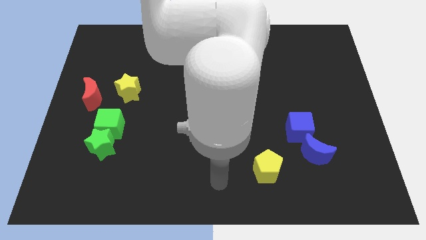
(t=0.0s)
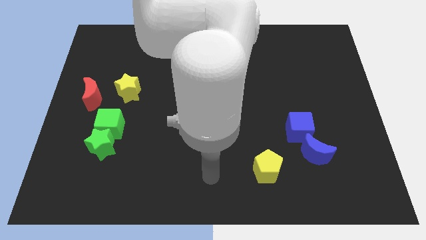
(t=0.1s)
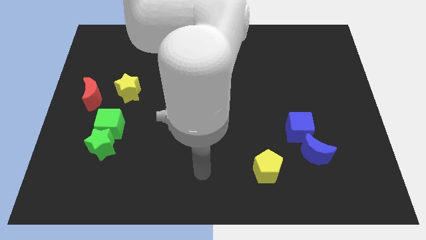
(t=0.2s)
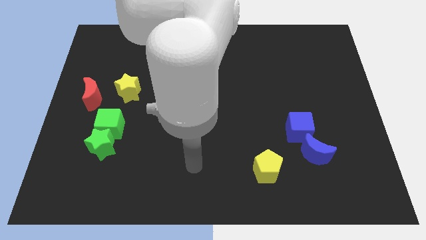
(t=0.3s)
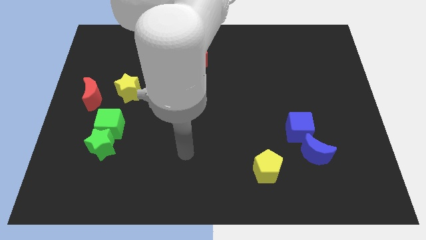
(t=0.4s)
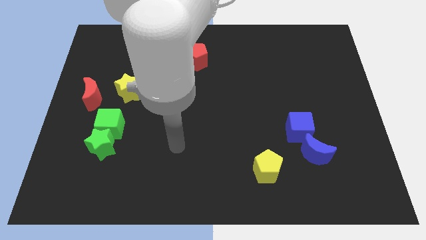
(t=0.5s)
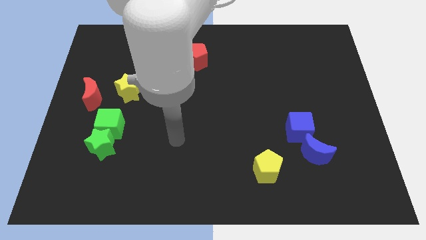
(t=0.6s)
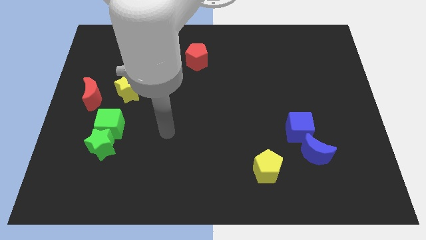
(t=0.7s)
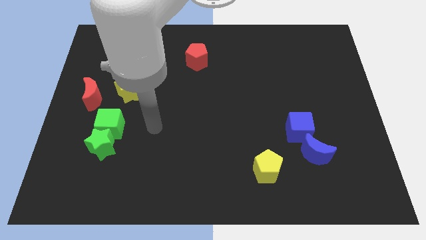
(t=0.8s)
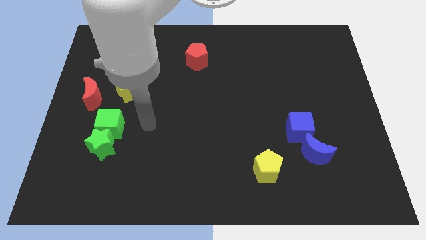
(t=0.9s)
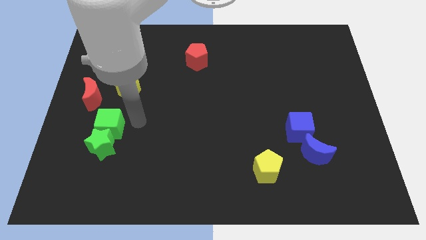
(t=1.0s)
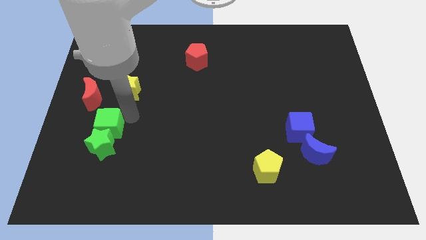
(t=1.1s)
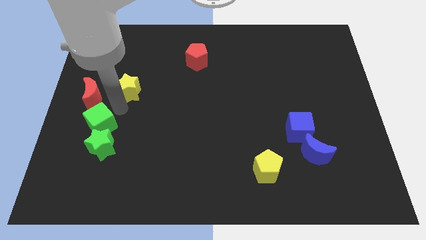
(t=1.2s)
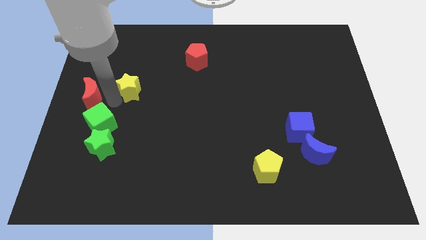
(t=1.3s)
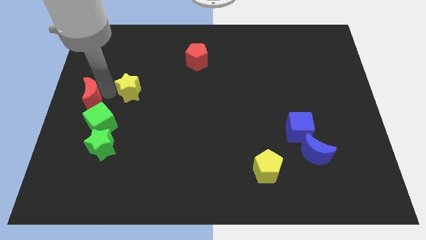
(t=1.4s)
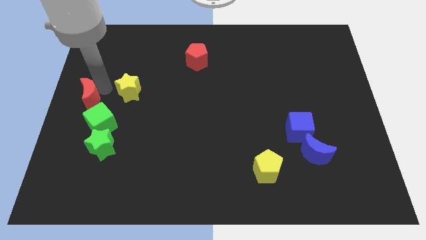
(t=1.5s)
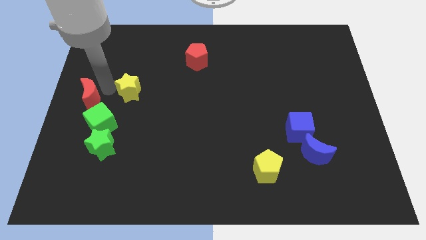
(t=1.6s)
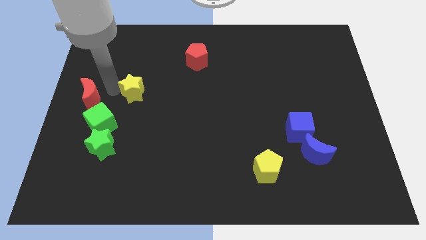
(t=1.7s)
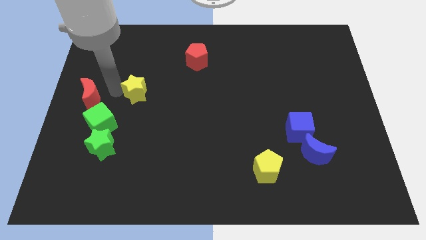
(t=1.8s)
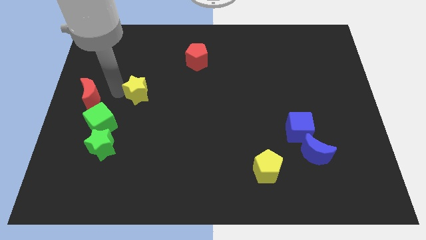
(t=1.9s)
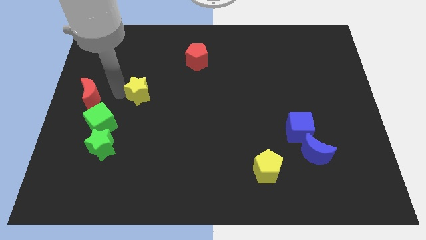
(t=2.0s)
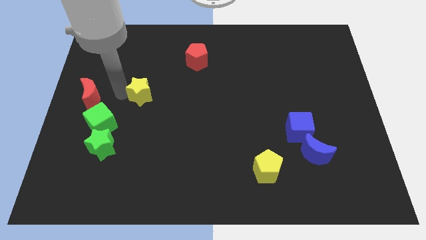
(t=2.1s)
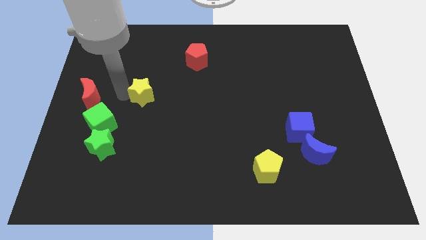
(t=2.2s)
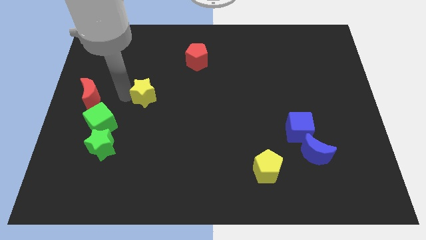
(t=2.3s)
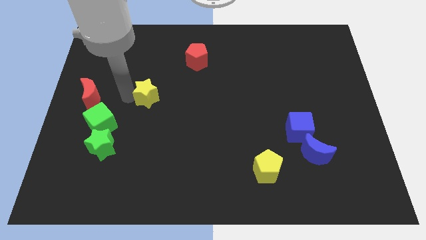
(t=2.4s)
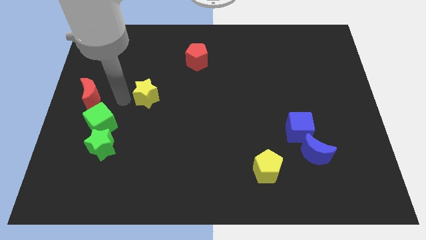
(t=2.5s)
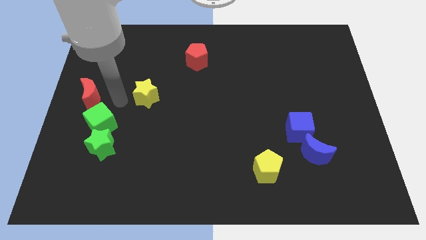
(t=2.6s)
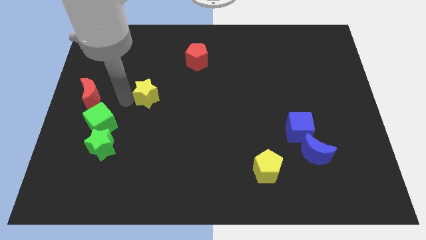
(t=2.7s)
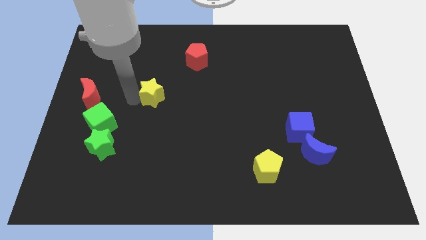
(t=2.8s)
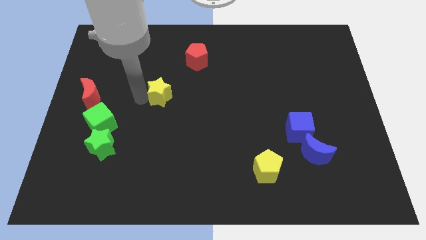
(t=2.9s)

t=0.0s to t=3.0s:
push the yellow star right a little

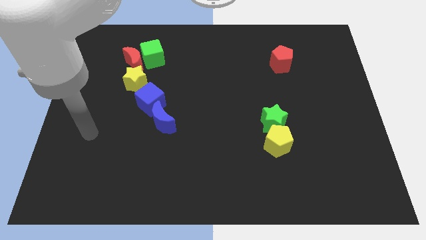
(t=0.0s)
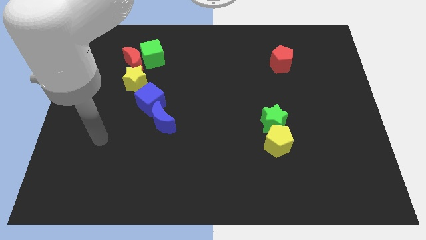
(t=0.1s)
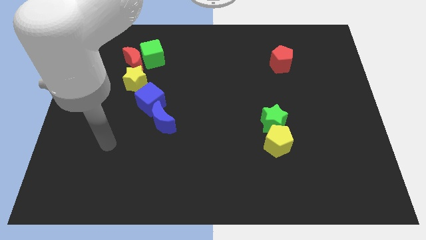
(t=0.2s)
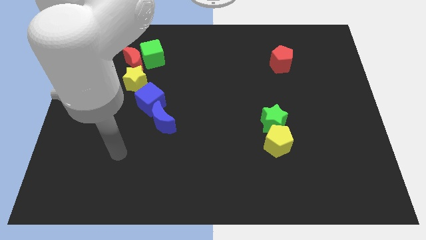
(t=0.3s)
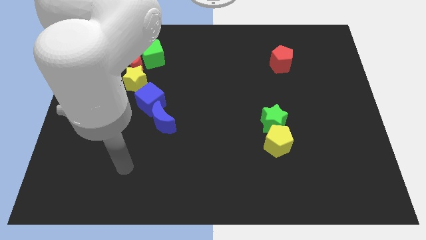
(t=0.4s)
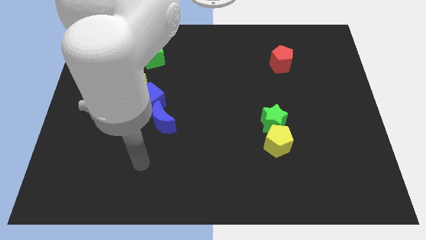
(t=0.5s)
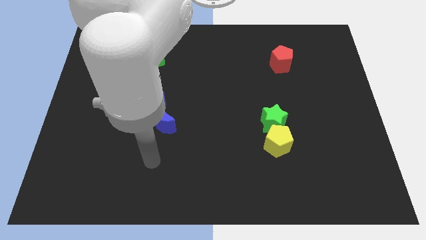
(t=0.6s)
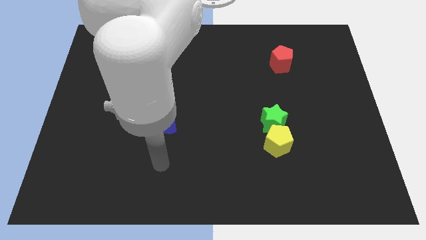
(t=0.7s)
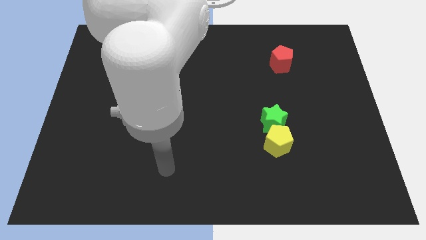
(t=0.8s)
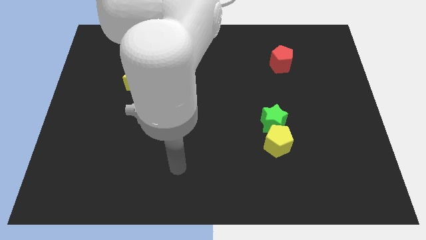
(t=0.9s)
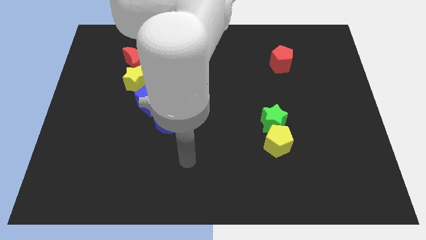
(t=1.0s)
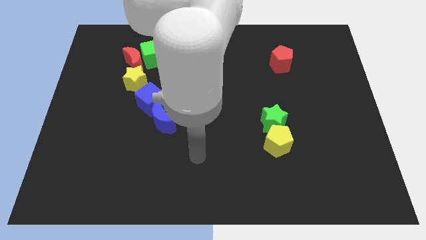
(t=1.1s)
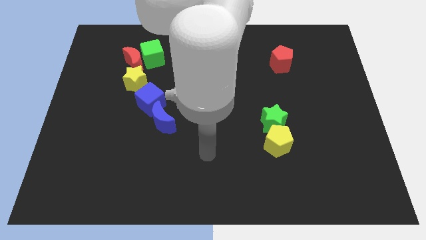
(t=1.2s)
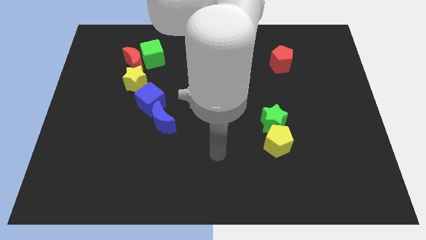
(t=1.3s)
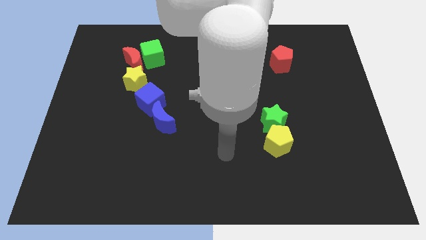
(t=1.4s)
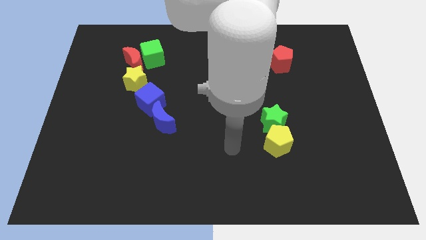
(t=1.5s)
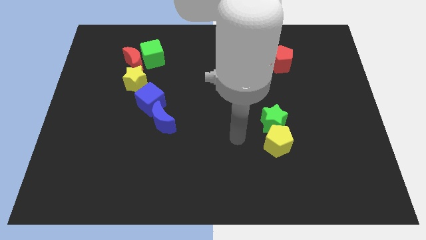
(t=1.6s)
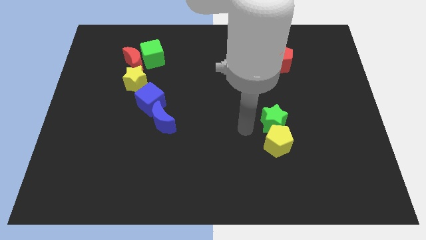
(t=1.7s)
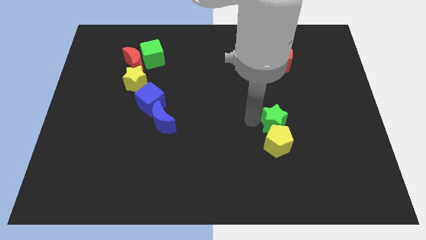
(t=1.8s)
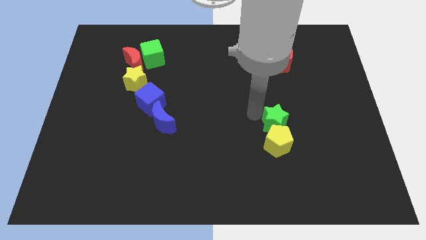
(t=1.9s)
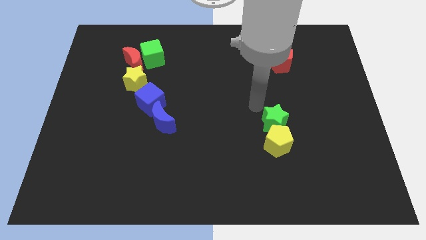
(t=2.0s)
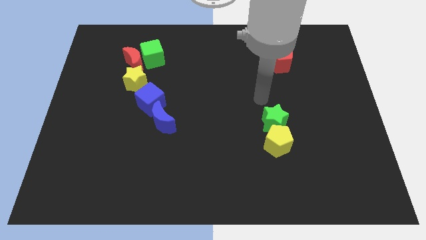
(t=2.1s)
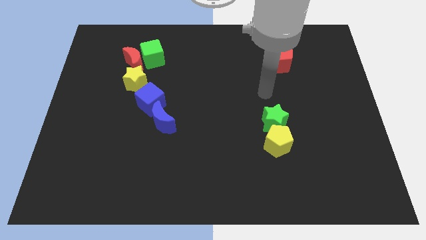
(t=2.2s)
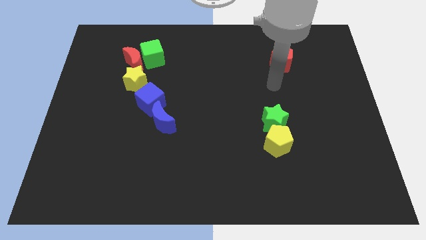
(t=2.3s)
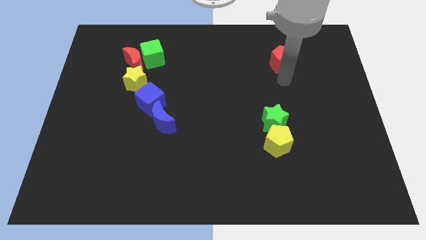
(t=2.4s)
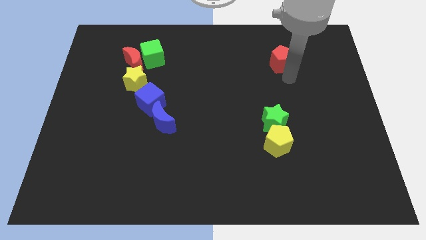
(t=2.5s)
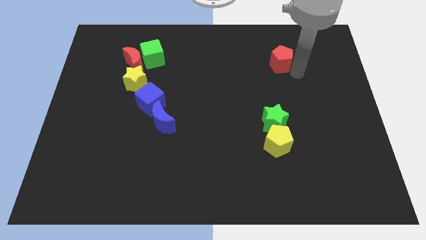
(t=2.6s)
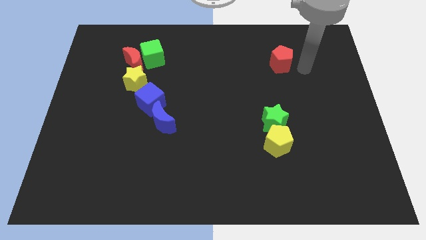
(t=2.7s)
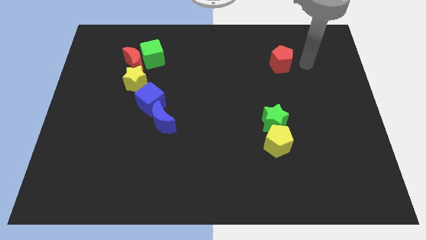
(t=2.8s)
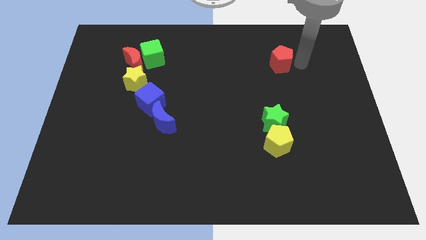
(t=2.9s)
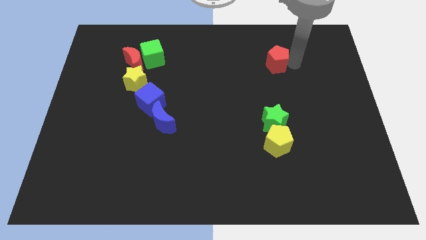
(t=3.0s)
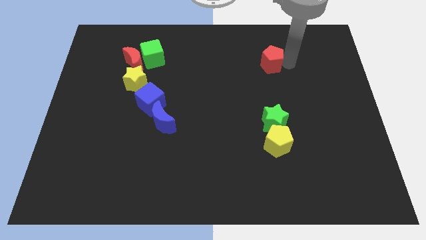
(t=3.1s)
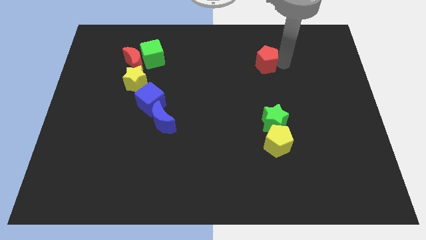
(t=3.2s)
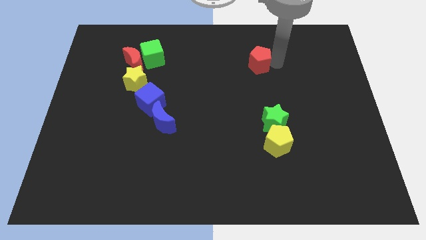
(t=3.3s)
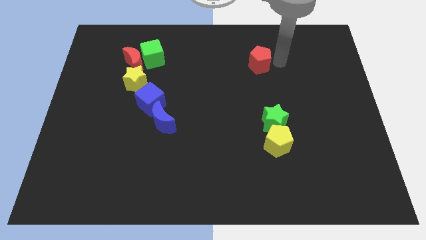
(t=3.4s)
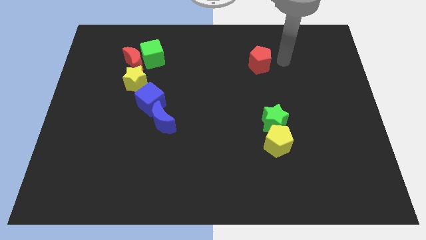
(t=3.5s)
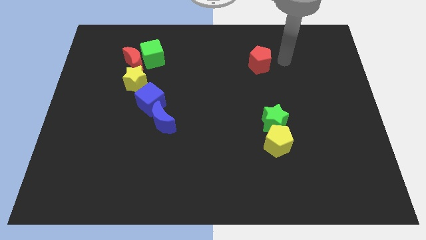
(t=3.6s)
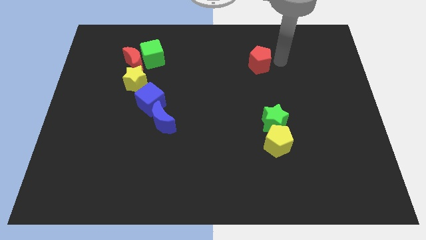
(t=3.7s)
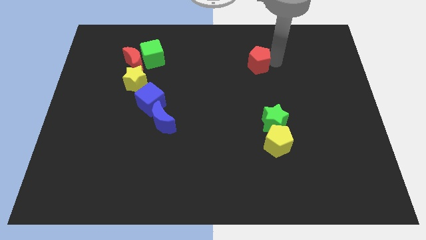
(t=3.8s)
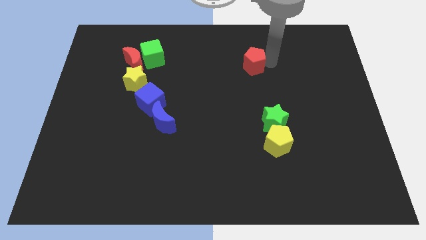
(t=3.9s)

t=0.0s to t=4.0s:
slide the red pentagon to the left slightly

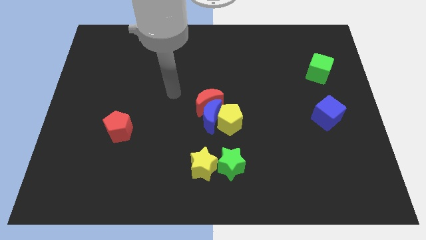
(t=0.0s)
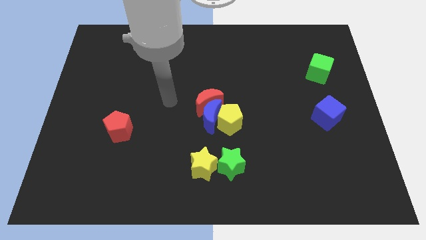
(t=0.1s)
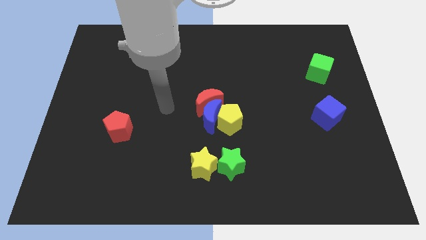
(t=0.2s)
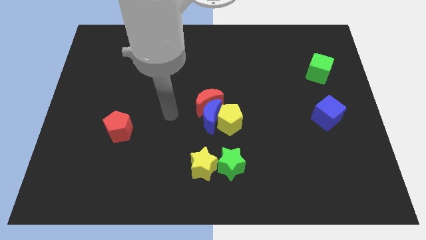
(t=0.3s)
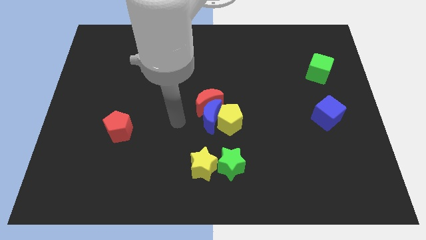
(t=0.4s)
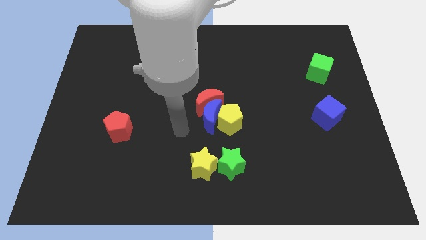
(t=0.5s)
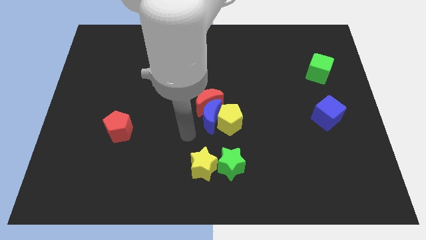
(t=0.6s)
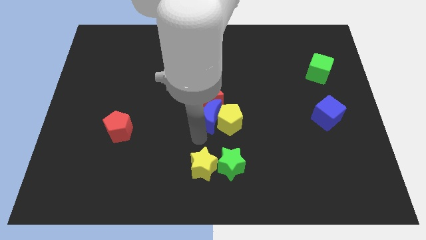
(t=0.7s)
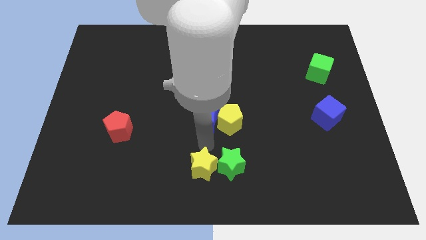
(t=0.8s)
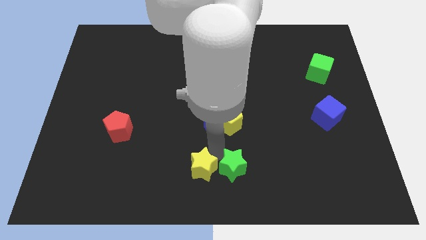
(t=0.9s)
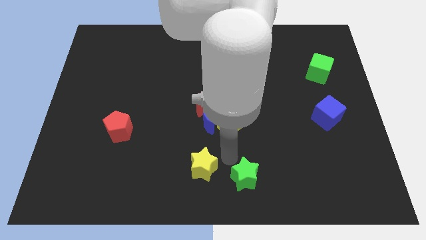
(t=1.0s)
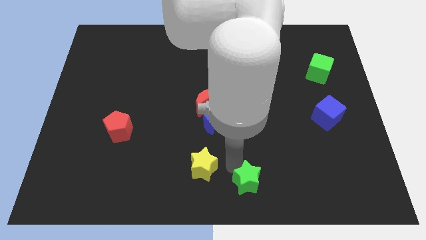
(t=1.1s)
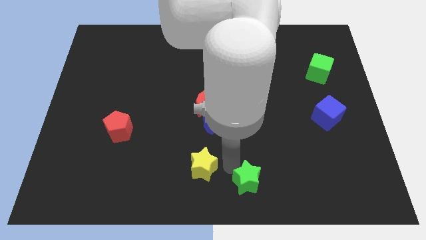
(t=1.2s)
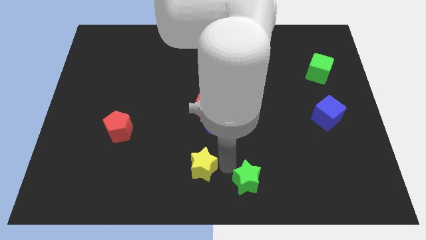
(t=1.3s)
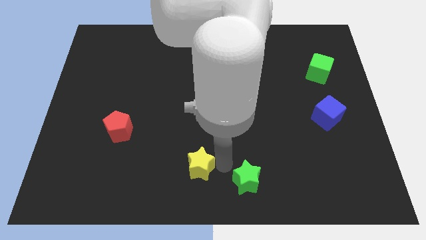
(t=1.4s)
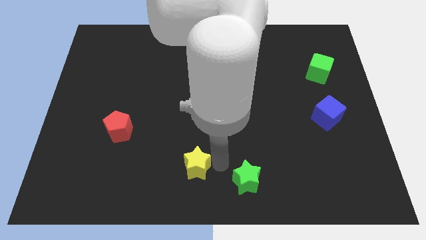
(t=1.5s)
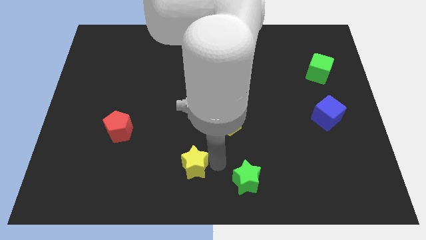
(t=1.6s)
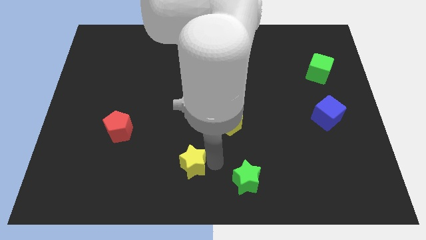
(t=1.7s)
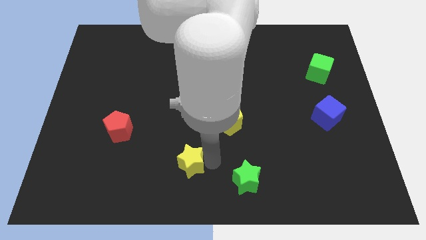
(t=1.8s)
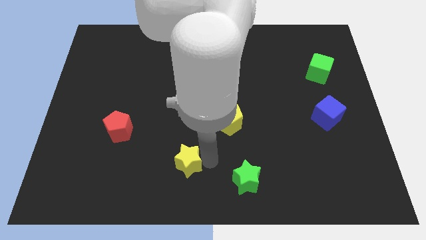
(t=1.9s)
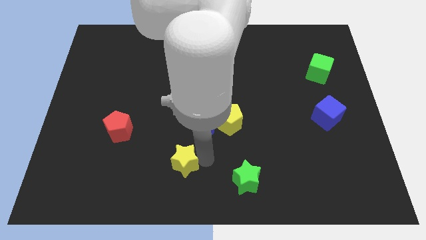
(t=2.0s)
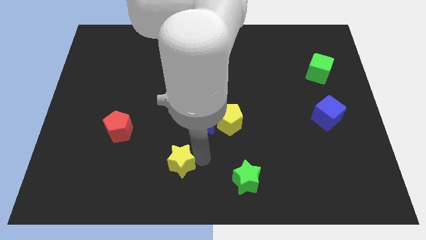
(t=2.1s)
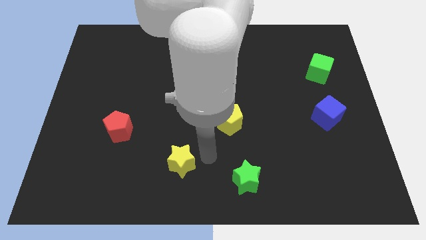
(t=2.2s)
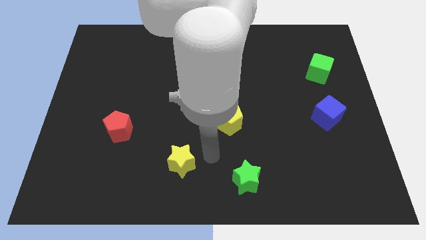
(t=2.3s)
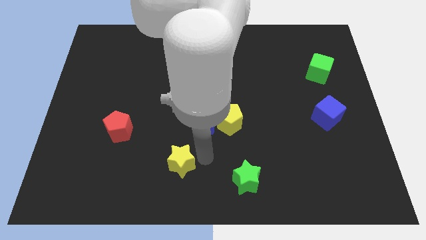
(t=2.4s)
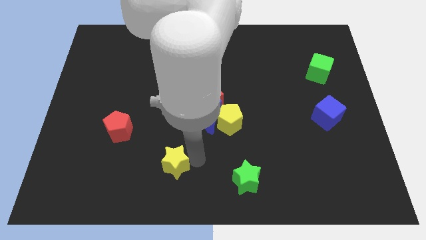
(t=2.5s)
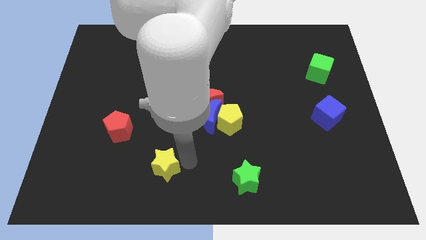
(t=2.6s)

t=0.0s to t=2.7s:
slide the yellow star slightly left
